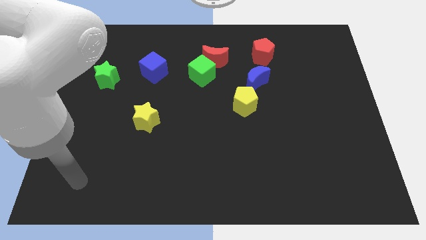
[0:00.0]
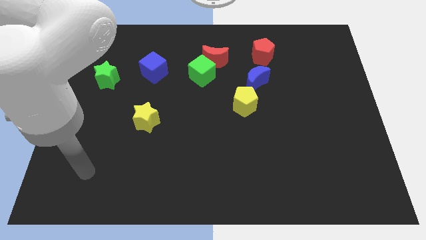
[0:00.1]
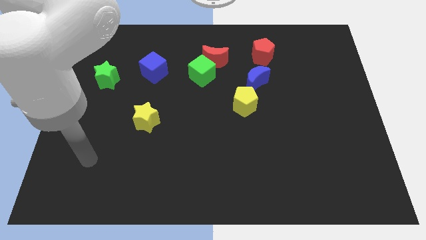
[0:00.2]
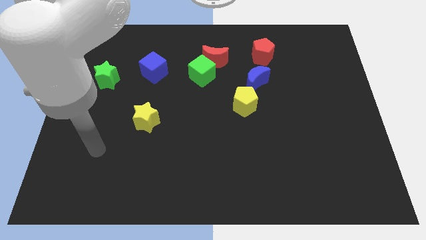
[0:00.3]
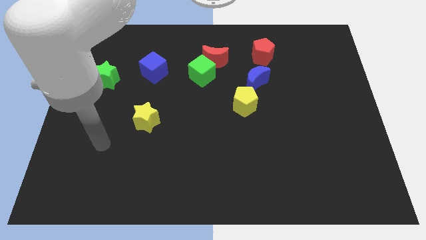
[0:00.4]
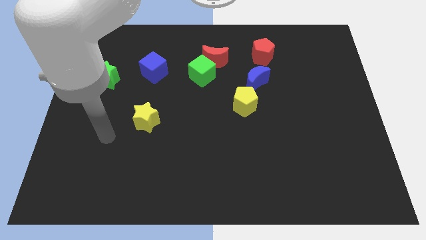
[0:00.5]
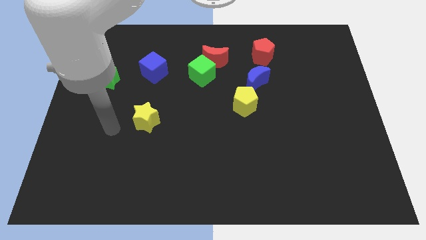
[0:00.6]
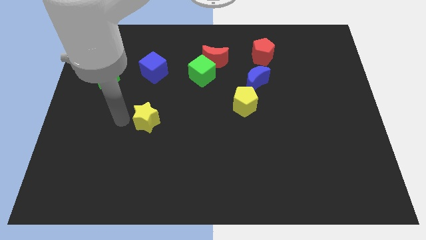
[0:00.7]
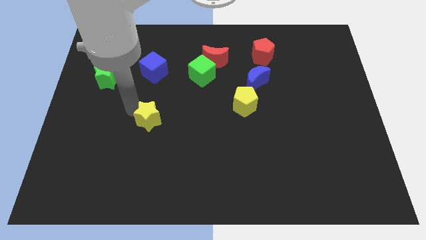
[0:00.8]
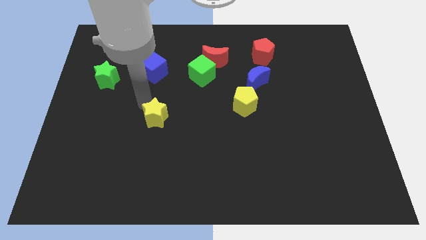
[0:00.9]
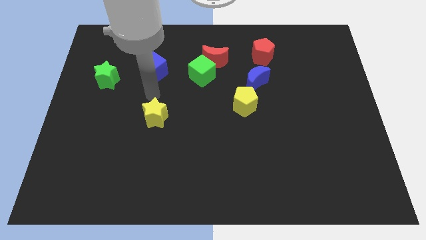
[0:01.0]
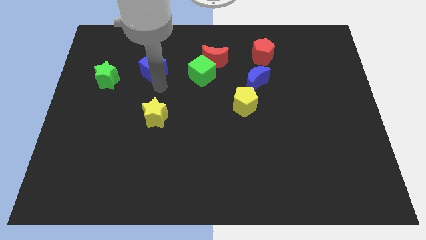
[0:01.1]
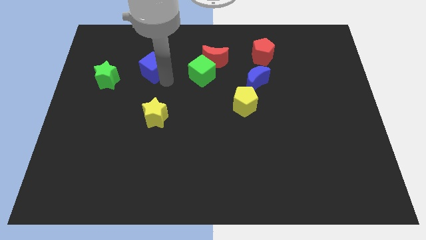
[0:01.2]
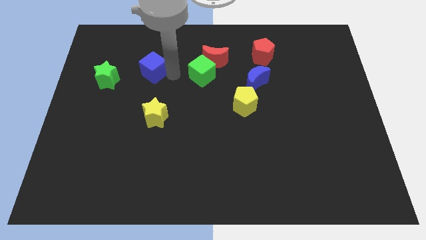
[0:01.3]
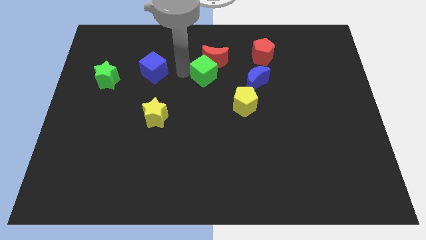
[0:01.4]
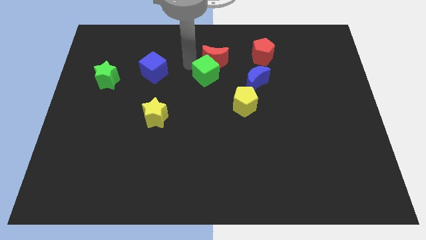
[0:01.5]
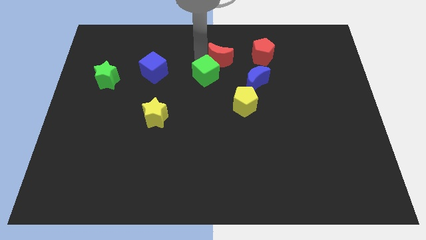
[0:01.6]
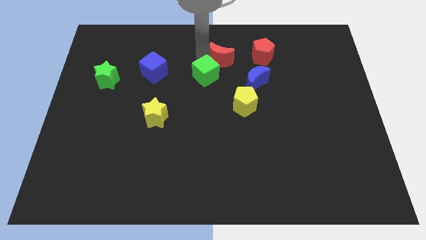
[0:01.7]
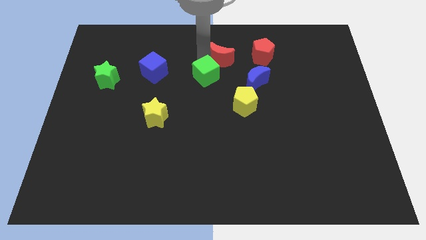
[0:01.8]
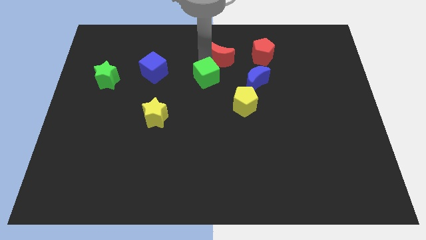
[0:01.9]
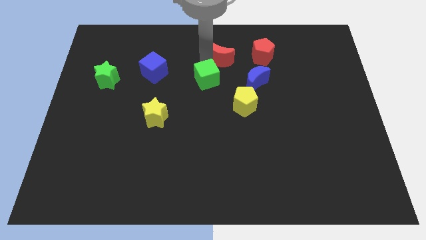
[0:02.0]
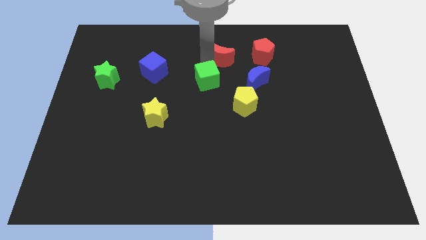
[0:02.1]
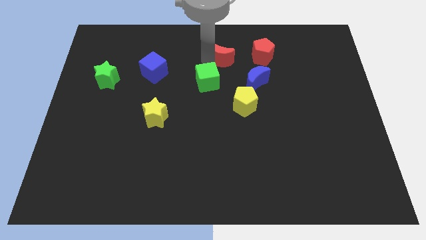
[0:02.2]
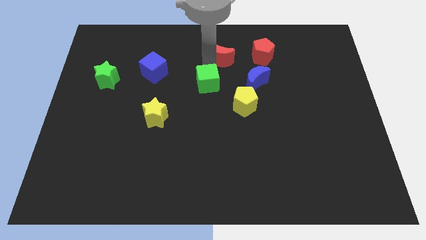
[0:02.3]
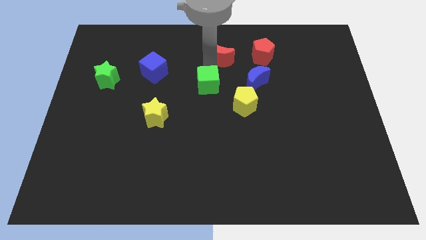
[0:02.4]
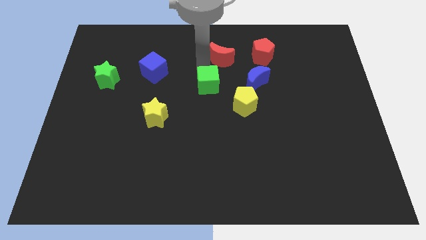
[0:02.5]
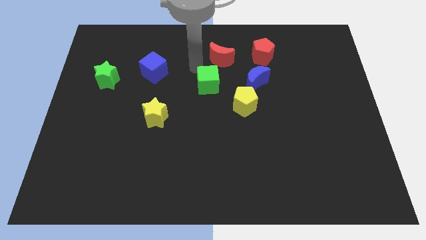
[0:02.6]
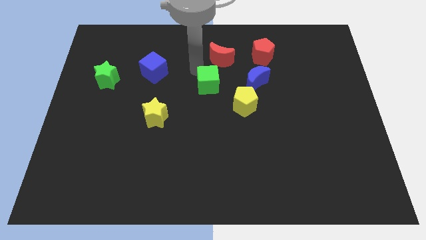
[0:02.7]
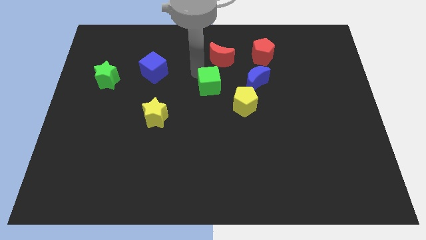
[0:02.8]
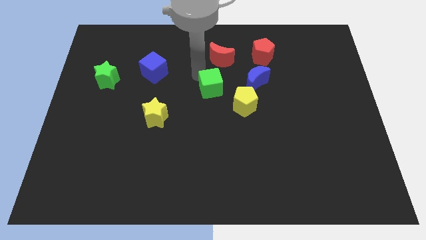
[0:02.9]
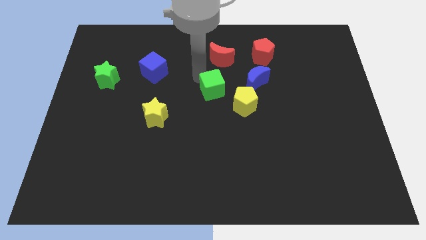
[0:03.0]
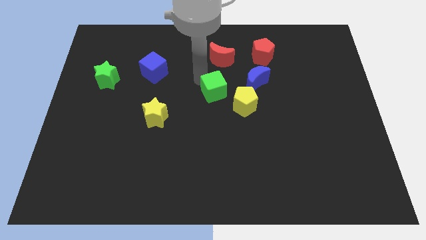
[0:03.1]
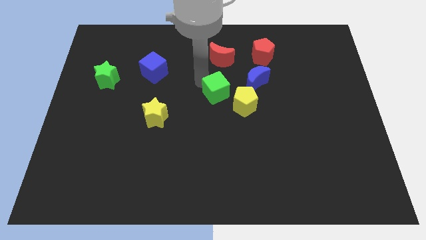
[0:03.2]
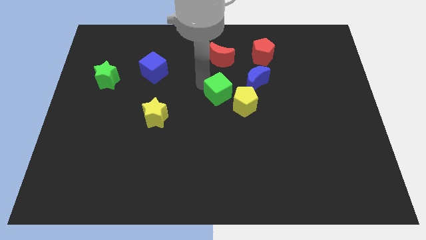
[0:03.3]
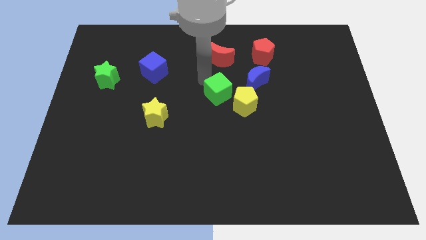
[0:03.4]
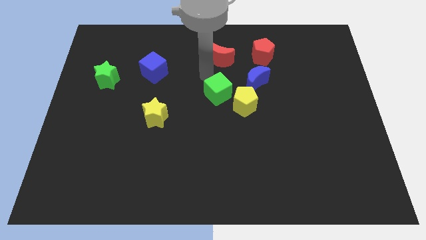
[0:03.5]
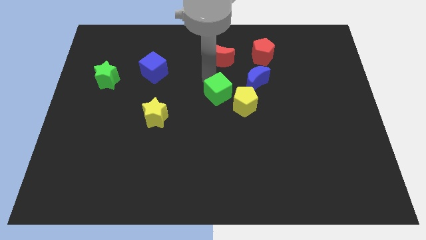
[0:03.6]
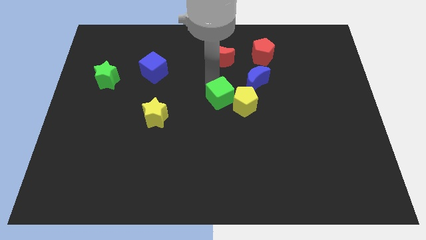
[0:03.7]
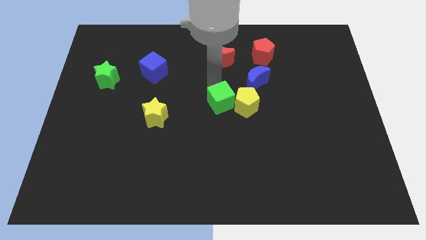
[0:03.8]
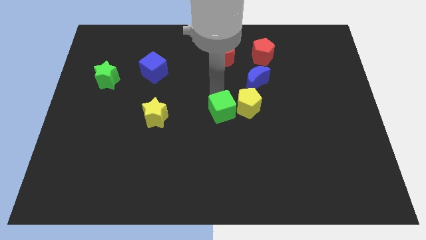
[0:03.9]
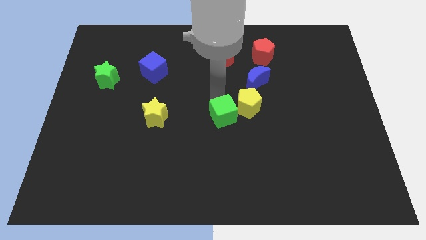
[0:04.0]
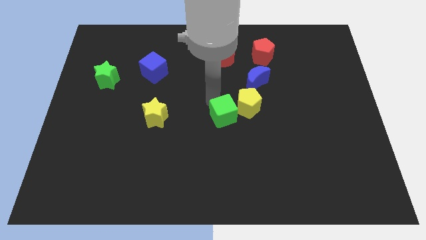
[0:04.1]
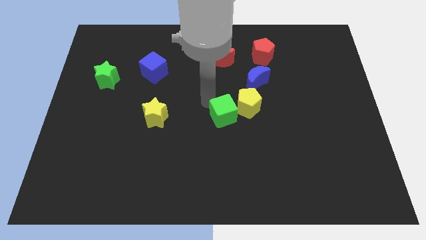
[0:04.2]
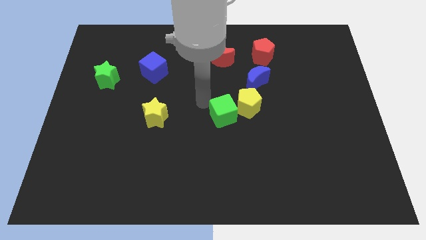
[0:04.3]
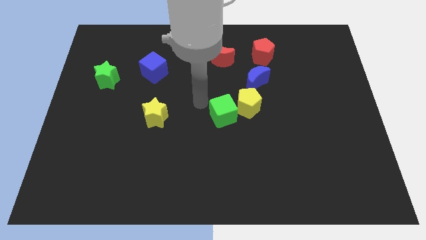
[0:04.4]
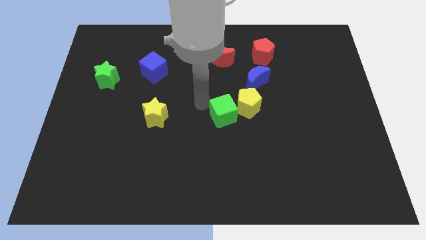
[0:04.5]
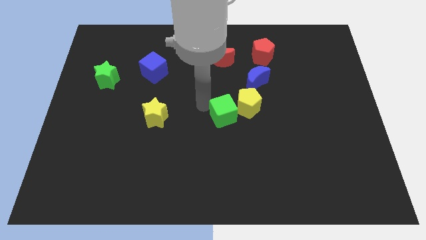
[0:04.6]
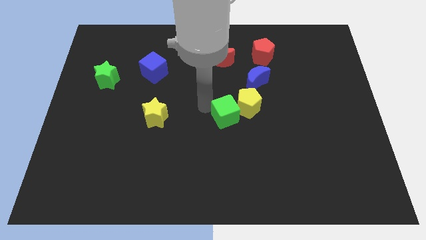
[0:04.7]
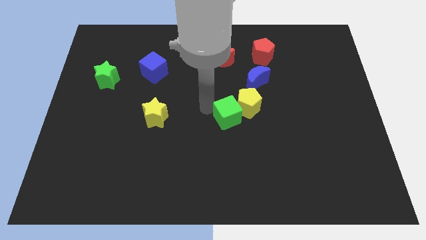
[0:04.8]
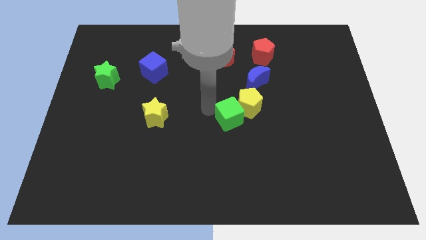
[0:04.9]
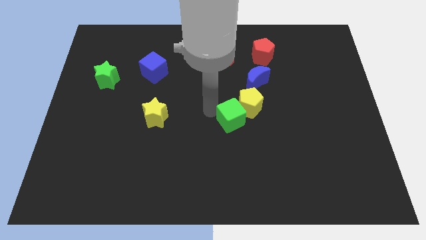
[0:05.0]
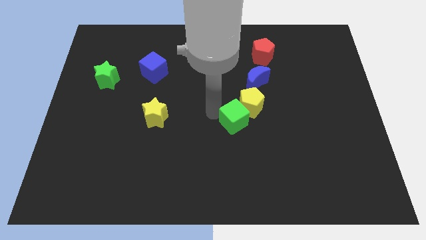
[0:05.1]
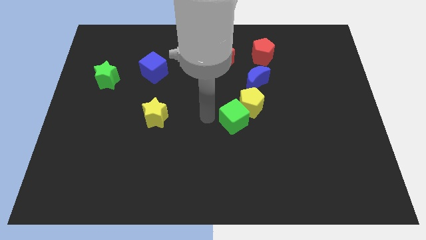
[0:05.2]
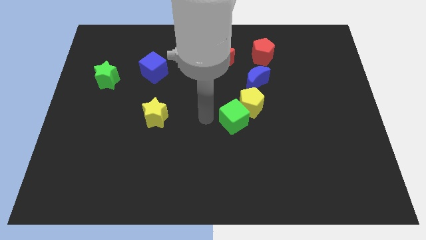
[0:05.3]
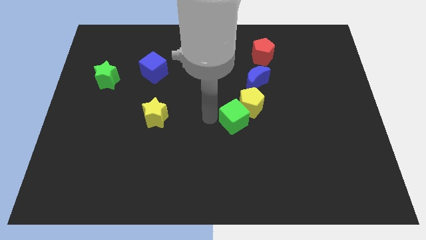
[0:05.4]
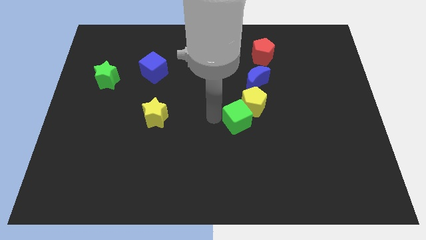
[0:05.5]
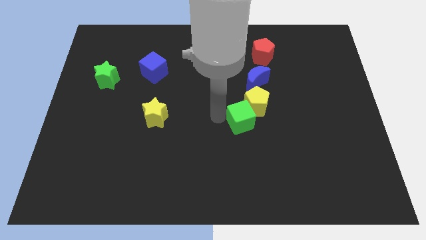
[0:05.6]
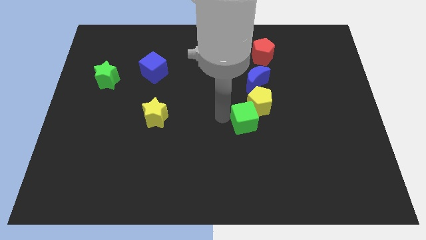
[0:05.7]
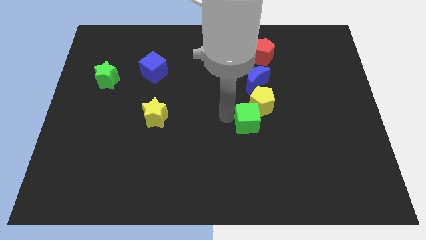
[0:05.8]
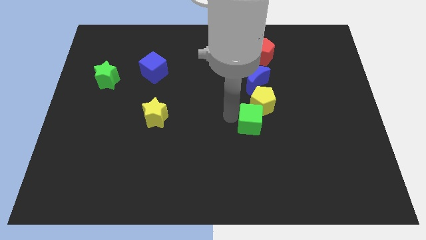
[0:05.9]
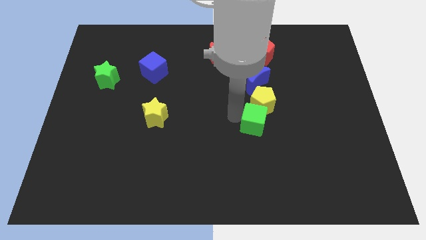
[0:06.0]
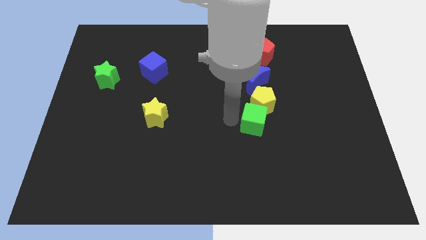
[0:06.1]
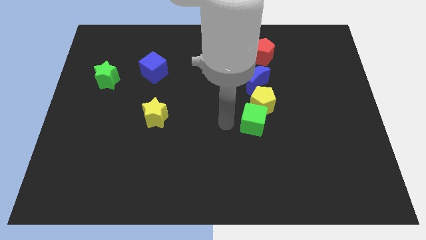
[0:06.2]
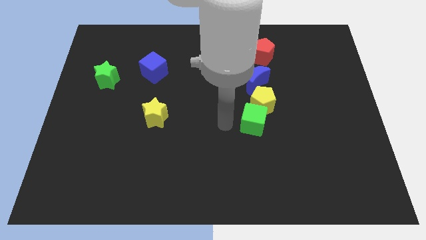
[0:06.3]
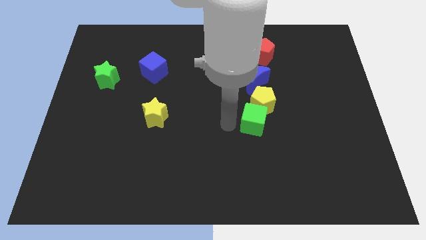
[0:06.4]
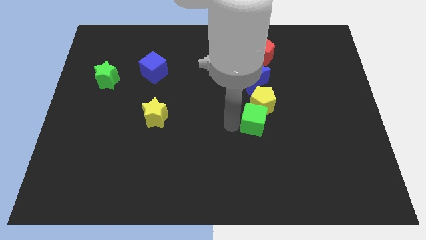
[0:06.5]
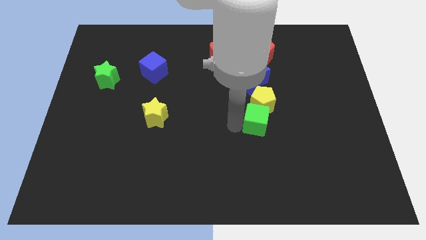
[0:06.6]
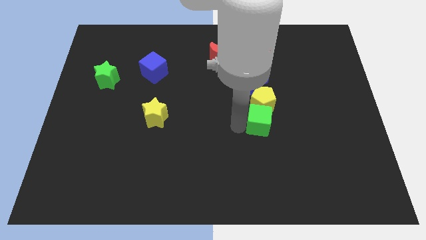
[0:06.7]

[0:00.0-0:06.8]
move the green cube diagonally down and to the right of the yellow pentagon
